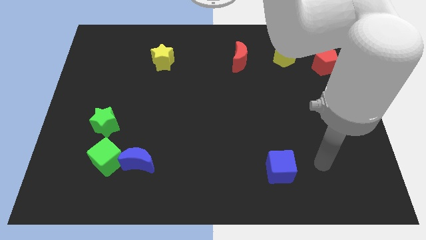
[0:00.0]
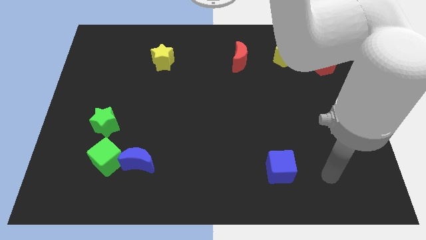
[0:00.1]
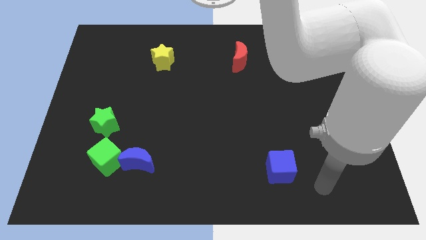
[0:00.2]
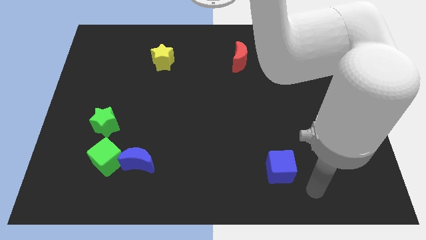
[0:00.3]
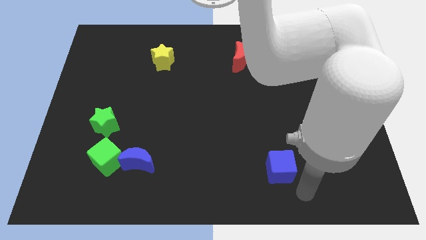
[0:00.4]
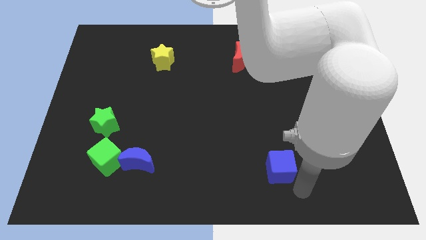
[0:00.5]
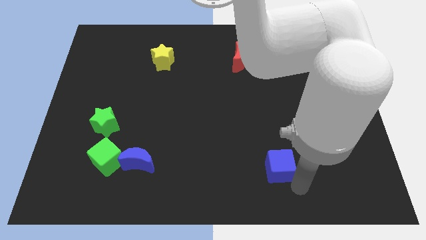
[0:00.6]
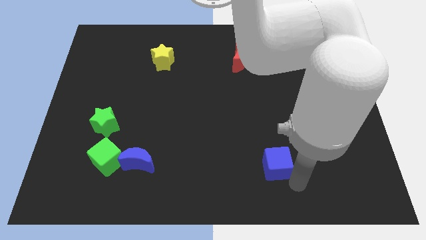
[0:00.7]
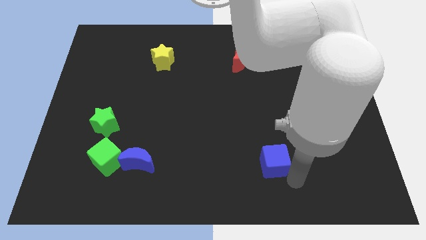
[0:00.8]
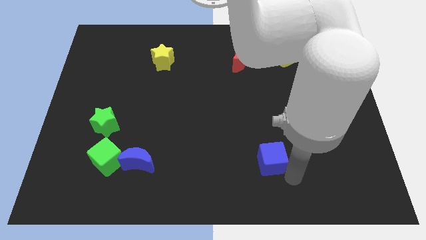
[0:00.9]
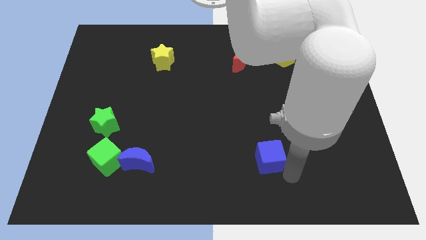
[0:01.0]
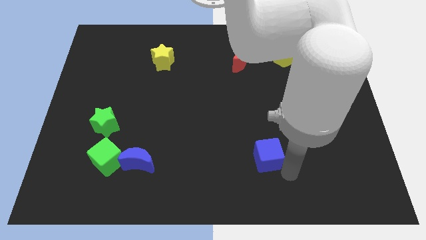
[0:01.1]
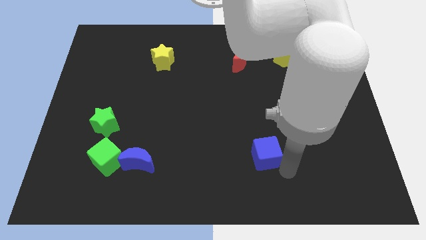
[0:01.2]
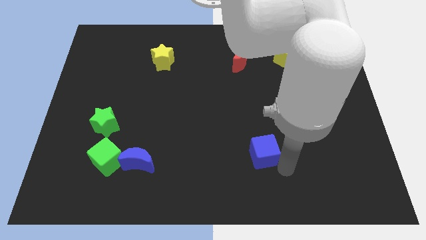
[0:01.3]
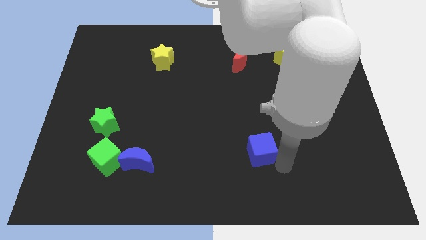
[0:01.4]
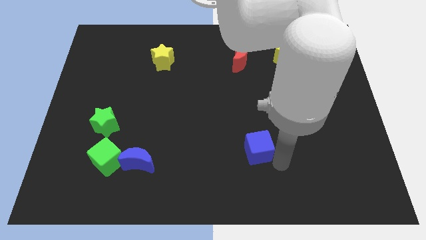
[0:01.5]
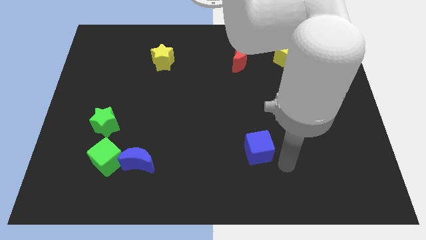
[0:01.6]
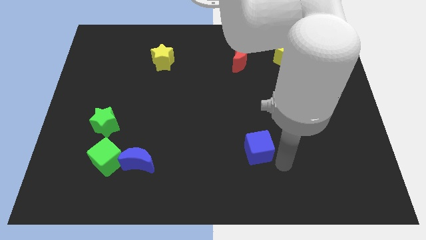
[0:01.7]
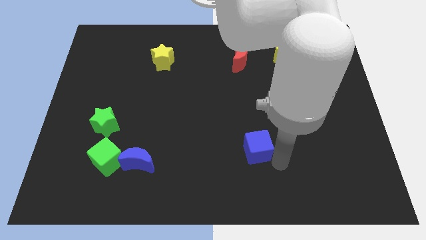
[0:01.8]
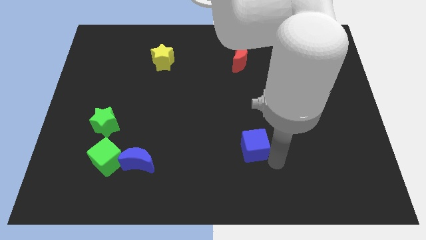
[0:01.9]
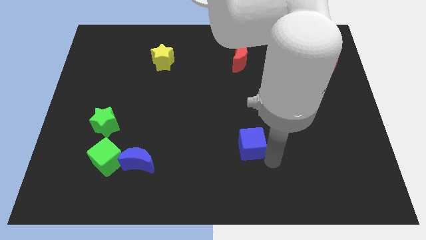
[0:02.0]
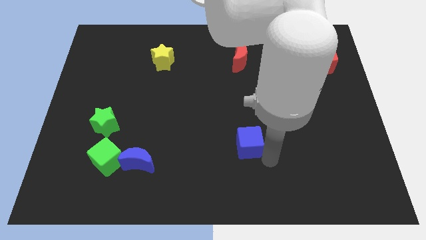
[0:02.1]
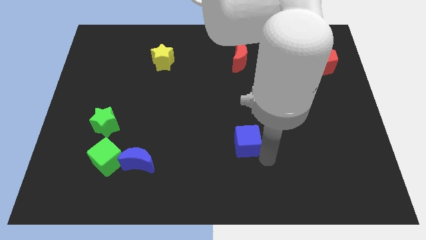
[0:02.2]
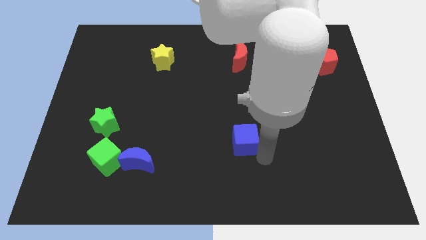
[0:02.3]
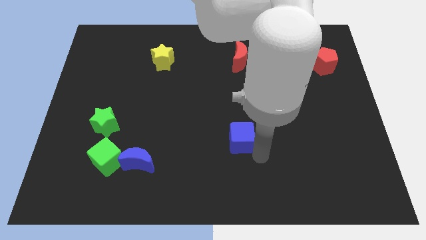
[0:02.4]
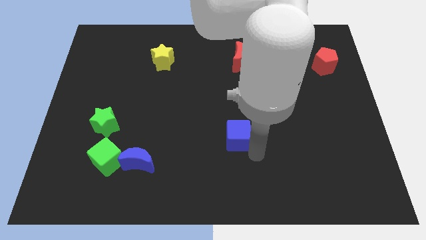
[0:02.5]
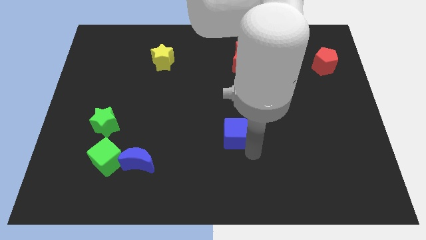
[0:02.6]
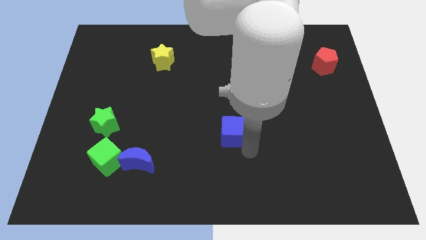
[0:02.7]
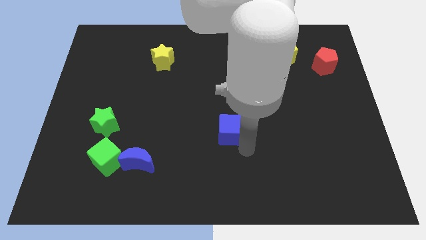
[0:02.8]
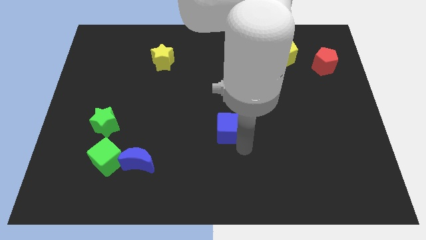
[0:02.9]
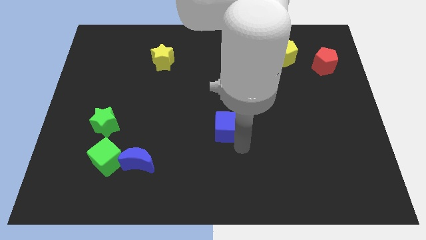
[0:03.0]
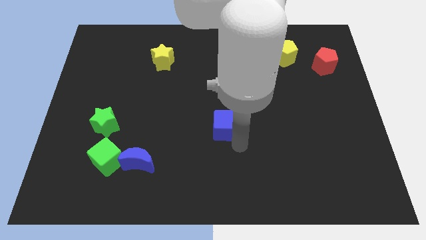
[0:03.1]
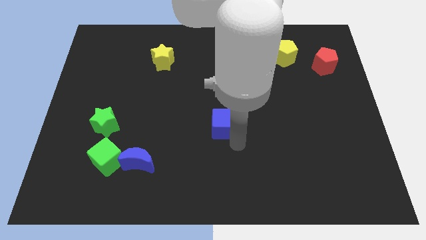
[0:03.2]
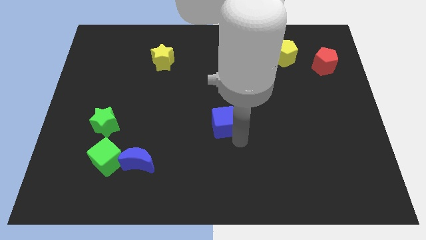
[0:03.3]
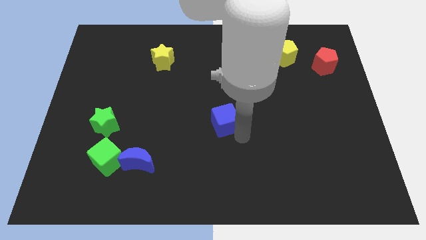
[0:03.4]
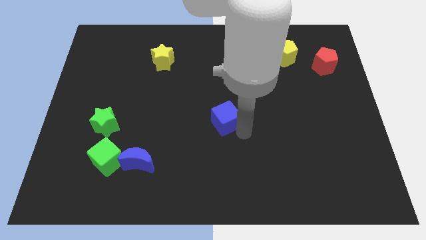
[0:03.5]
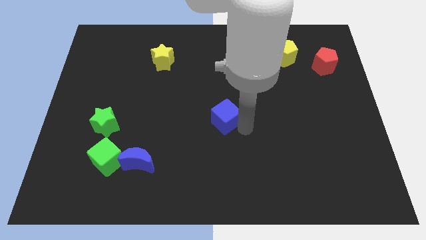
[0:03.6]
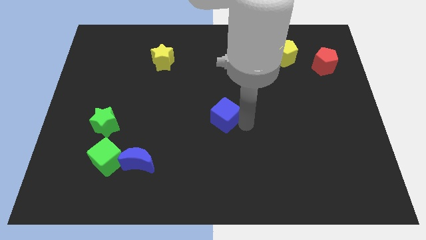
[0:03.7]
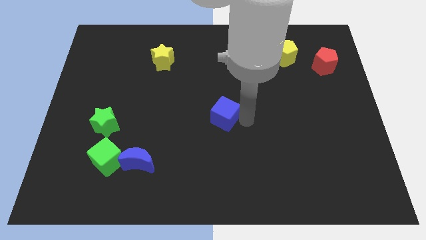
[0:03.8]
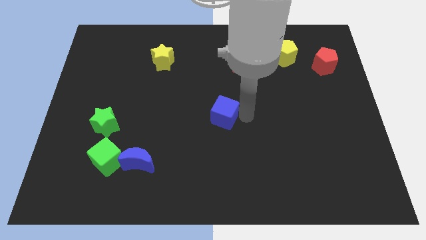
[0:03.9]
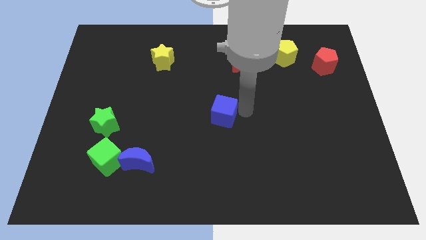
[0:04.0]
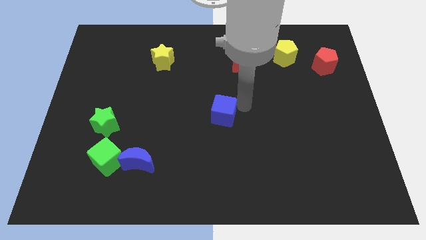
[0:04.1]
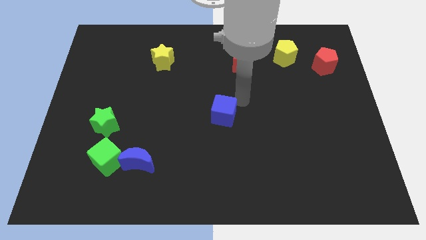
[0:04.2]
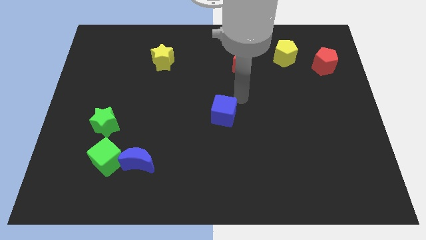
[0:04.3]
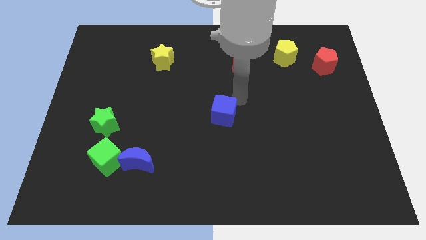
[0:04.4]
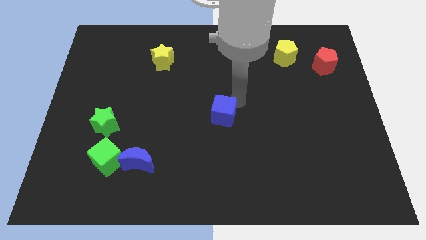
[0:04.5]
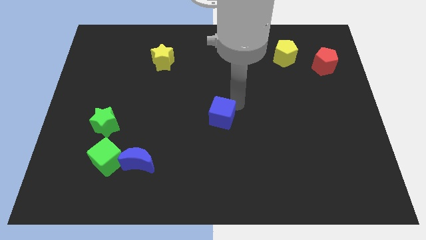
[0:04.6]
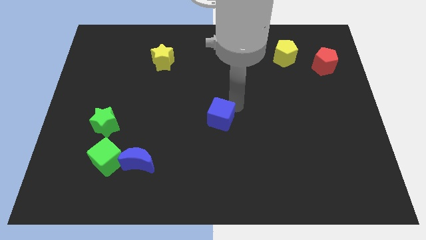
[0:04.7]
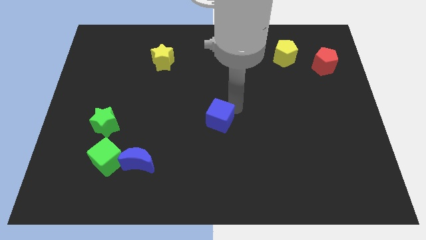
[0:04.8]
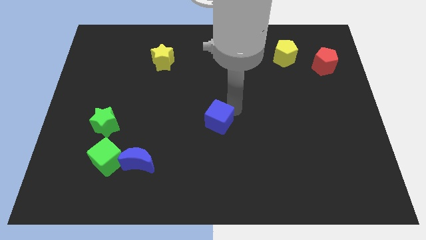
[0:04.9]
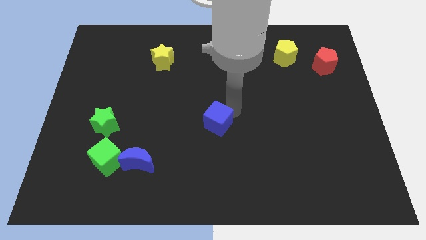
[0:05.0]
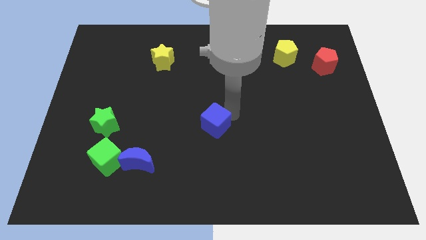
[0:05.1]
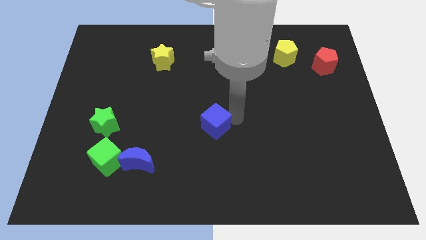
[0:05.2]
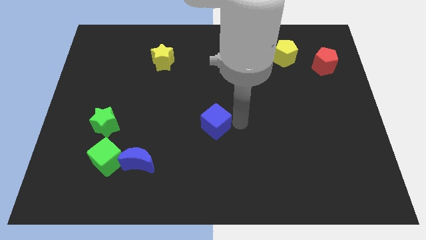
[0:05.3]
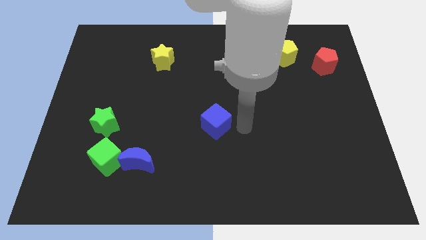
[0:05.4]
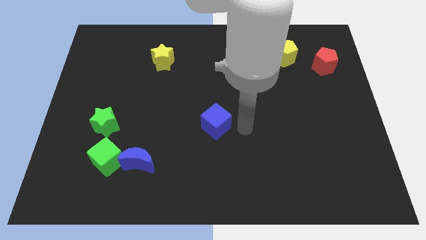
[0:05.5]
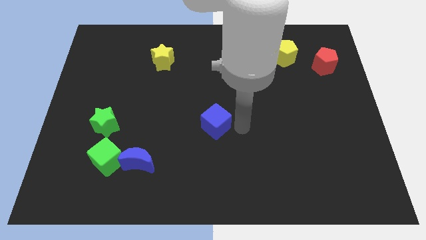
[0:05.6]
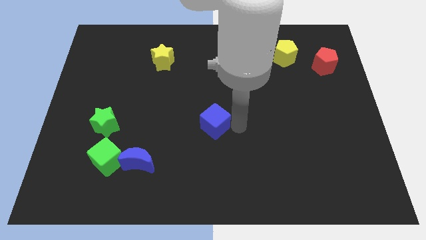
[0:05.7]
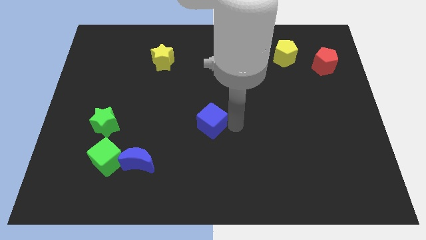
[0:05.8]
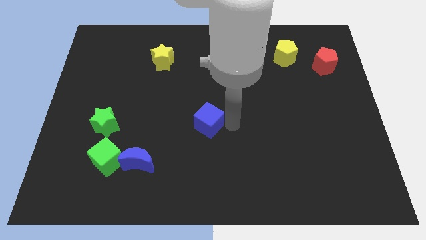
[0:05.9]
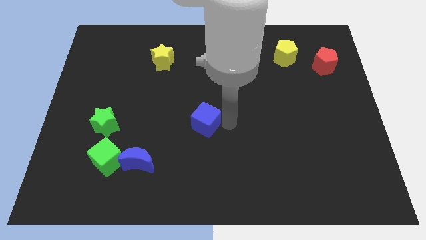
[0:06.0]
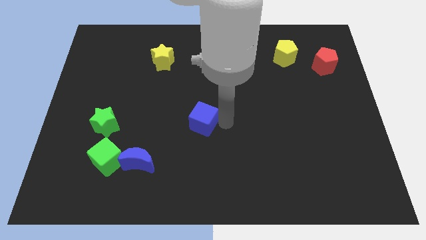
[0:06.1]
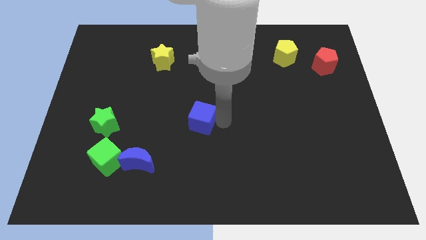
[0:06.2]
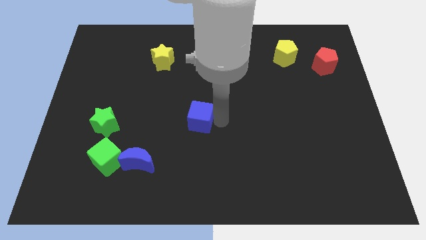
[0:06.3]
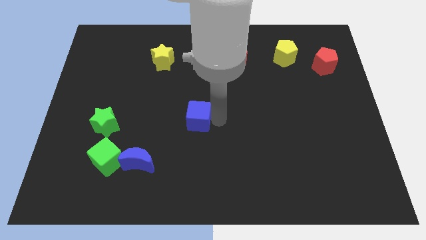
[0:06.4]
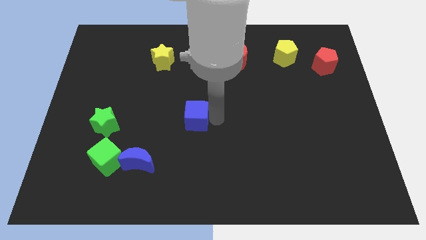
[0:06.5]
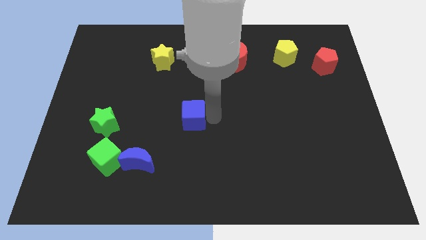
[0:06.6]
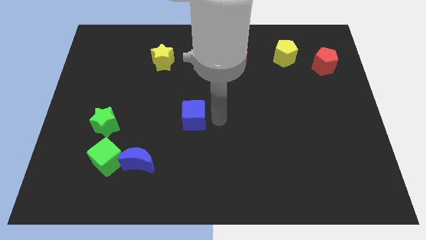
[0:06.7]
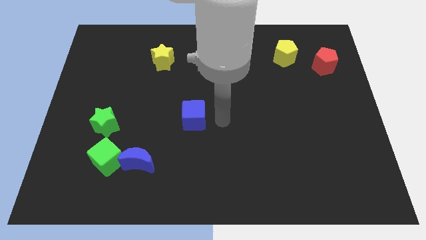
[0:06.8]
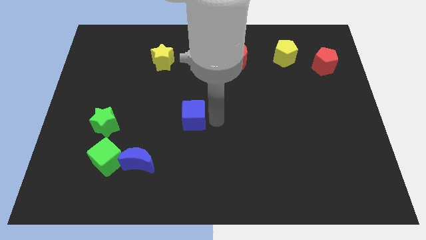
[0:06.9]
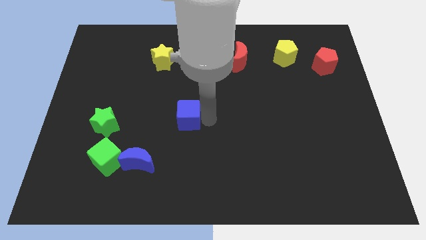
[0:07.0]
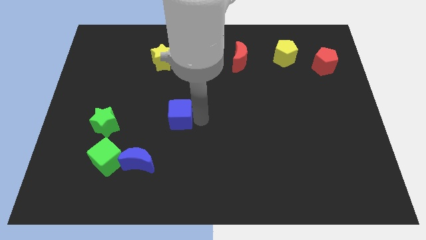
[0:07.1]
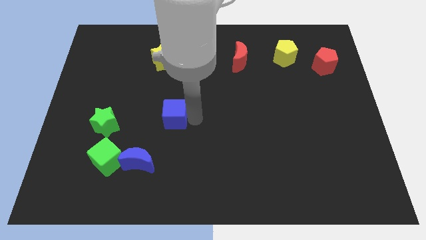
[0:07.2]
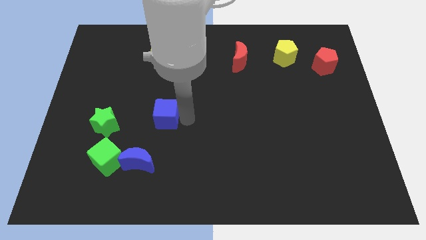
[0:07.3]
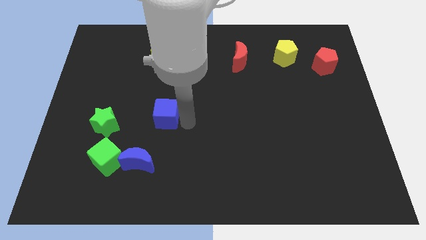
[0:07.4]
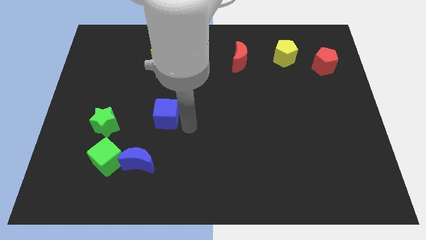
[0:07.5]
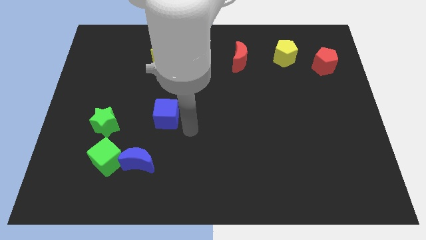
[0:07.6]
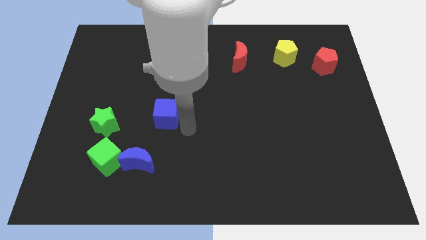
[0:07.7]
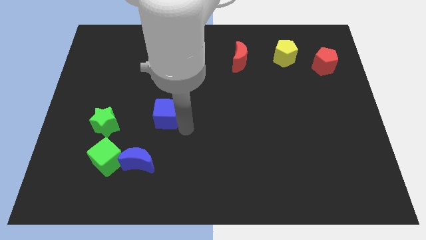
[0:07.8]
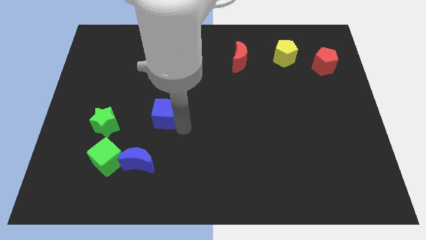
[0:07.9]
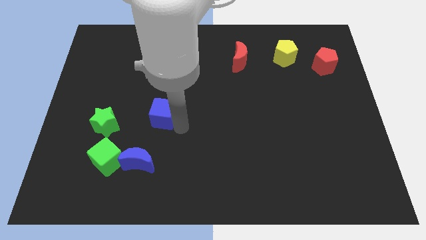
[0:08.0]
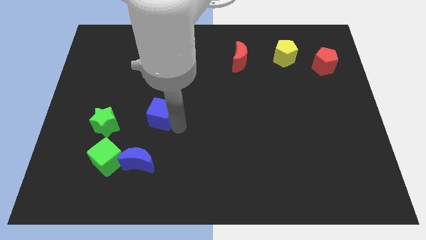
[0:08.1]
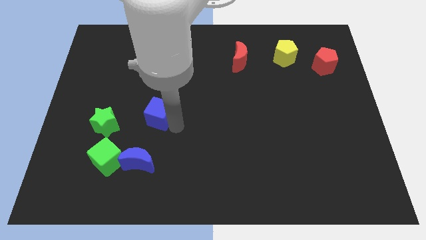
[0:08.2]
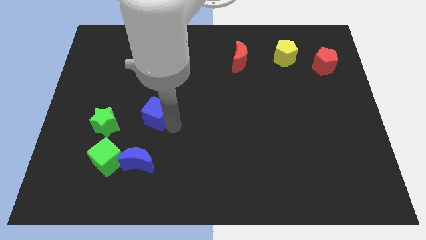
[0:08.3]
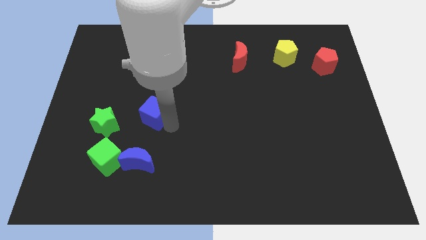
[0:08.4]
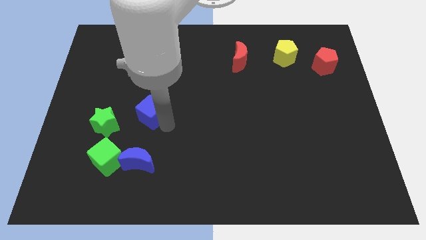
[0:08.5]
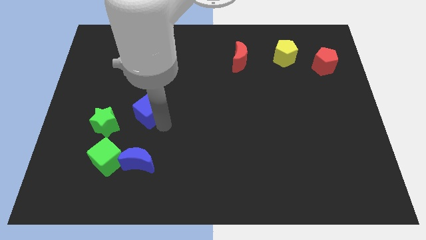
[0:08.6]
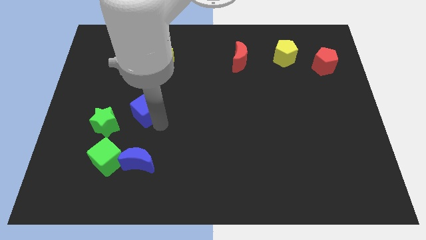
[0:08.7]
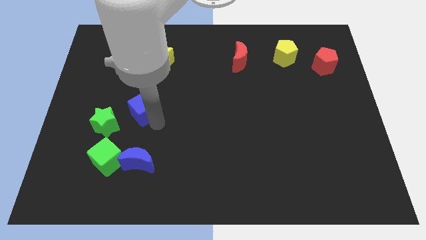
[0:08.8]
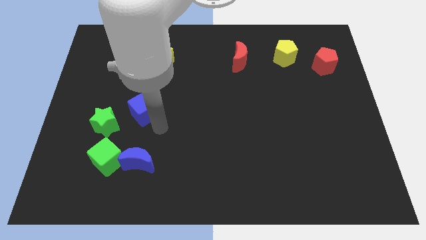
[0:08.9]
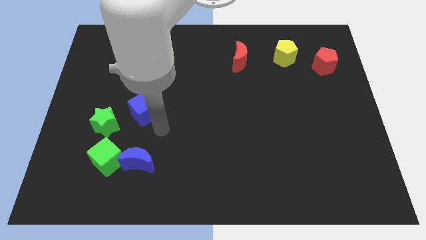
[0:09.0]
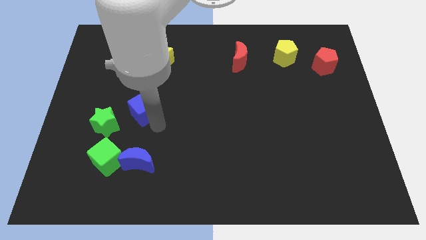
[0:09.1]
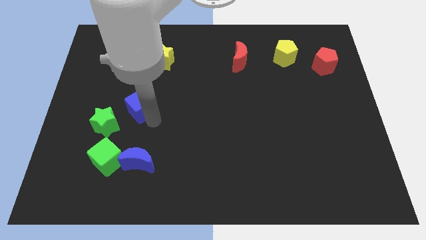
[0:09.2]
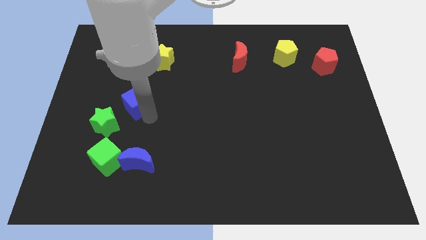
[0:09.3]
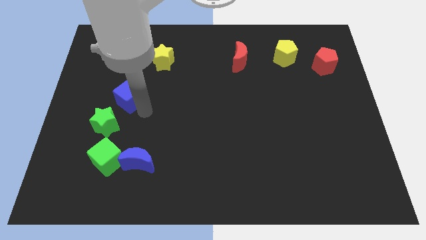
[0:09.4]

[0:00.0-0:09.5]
push the blue cube above the green star
